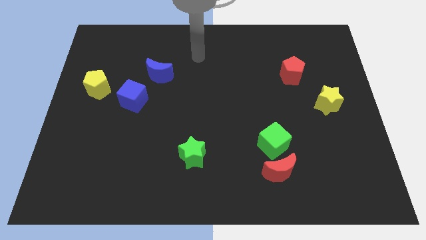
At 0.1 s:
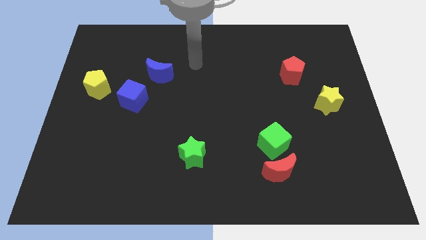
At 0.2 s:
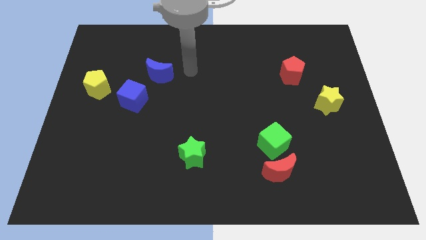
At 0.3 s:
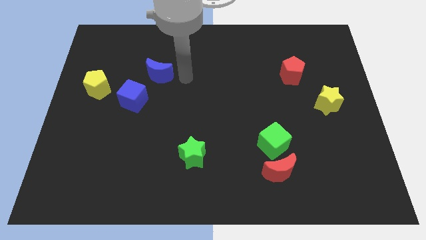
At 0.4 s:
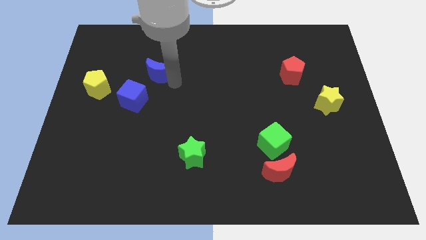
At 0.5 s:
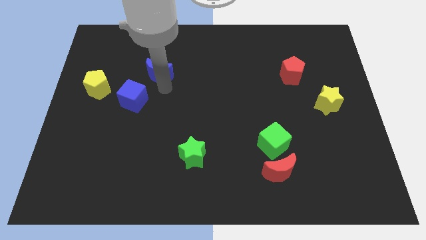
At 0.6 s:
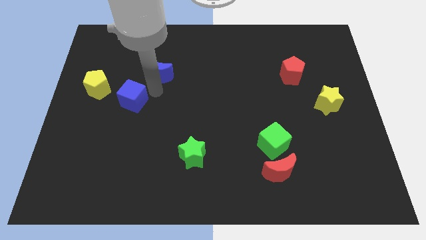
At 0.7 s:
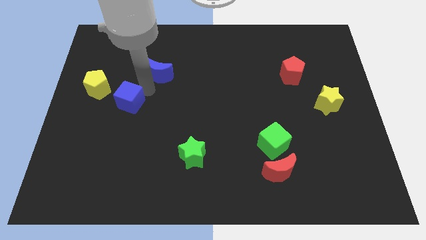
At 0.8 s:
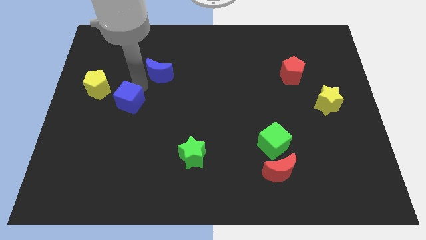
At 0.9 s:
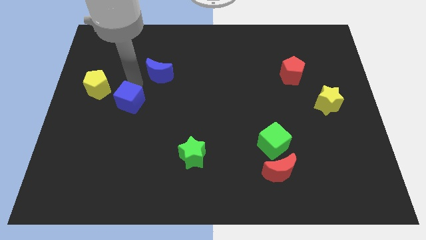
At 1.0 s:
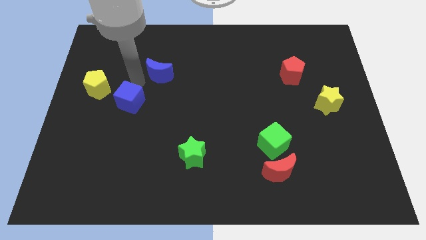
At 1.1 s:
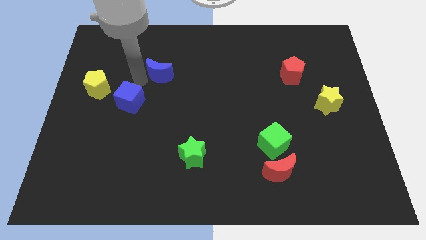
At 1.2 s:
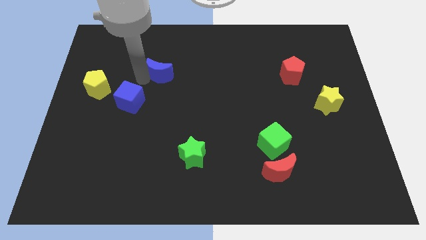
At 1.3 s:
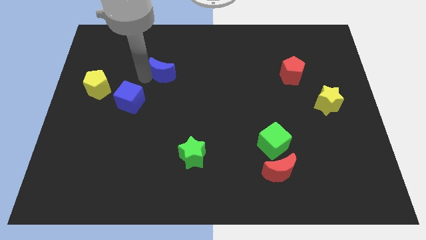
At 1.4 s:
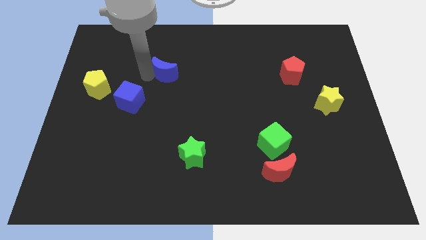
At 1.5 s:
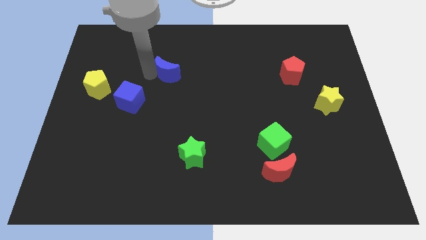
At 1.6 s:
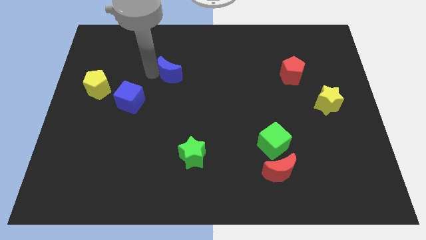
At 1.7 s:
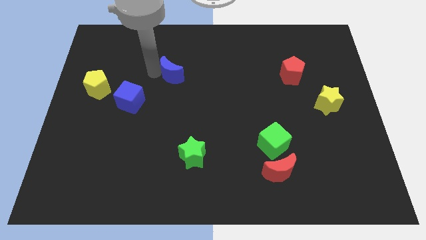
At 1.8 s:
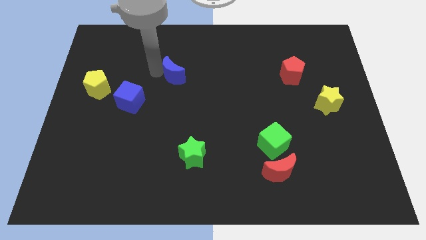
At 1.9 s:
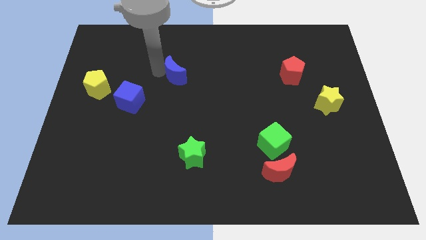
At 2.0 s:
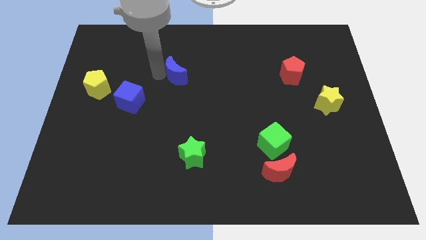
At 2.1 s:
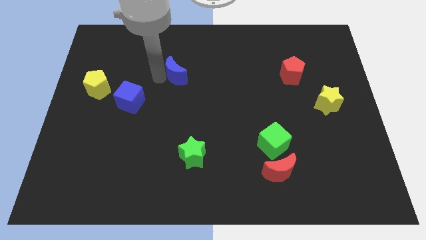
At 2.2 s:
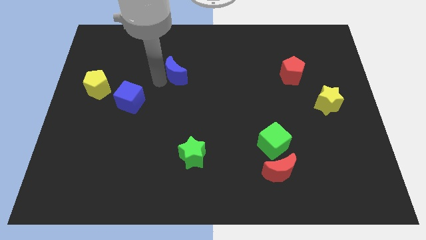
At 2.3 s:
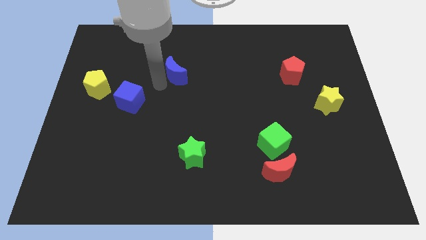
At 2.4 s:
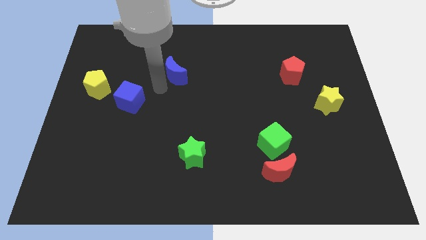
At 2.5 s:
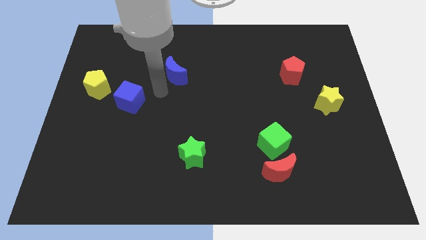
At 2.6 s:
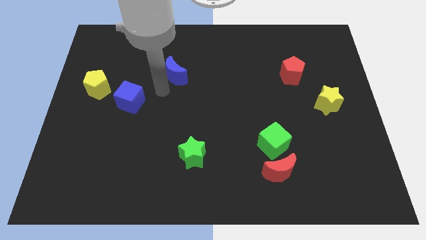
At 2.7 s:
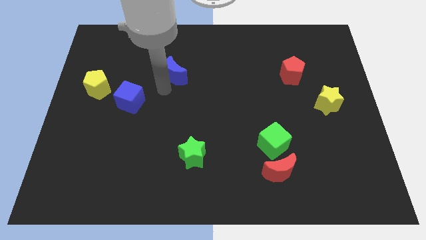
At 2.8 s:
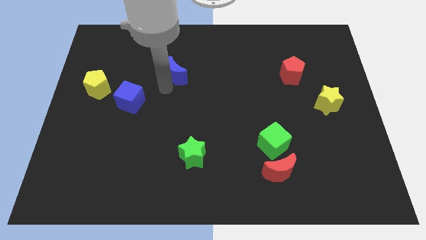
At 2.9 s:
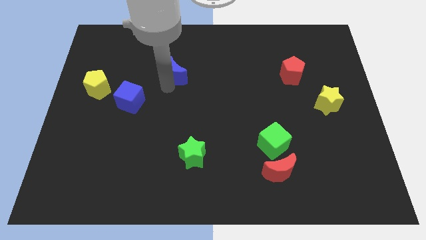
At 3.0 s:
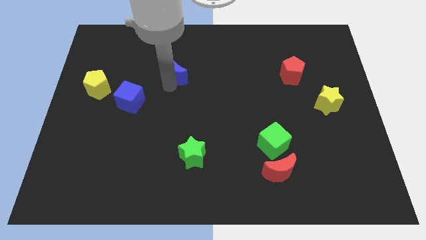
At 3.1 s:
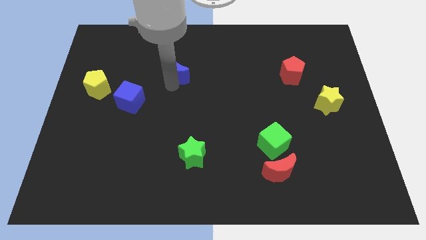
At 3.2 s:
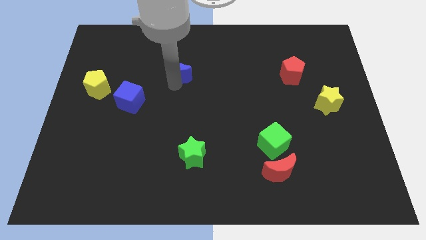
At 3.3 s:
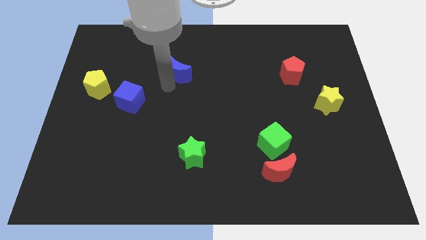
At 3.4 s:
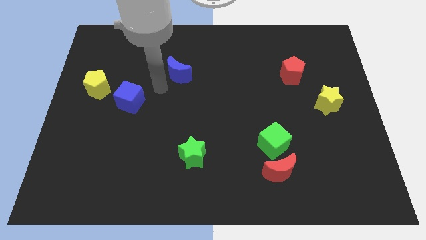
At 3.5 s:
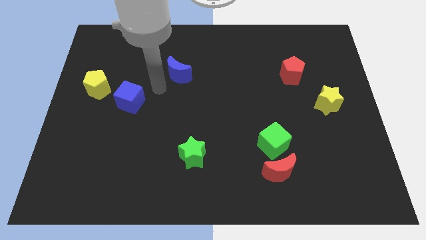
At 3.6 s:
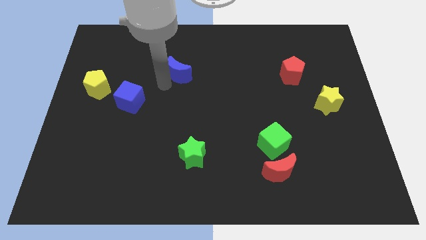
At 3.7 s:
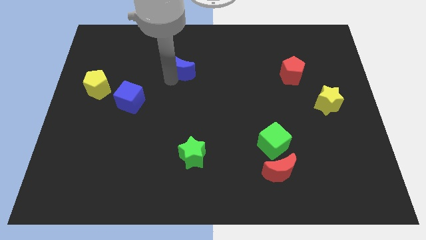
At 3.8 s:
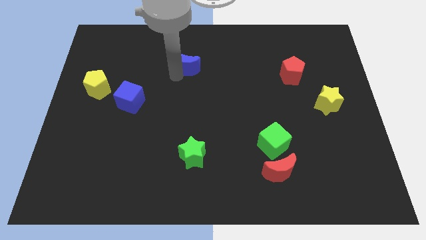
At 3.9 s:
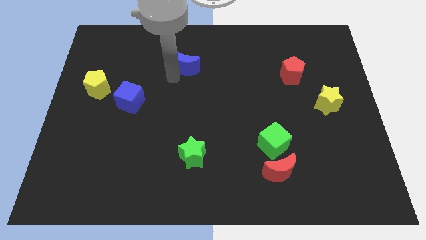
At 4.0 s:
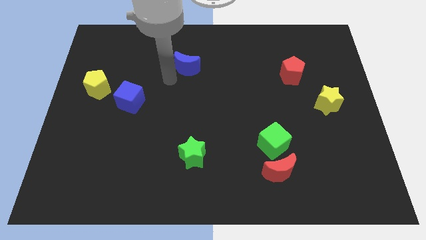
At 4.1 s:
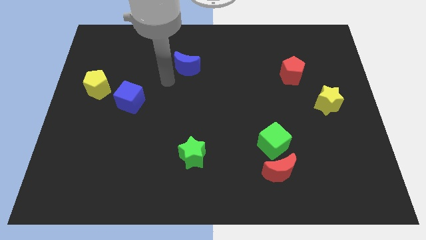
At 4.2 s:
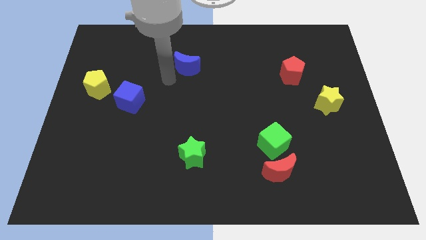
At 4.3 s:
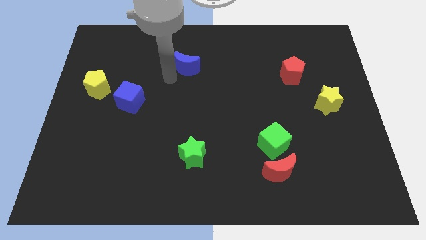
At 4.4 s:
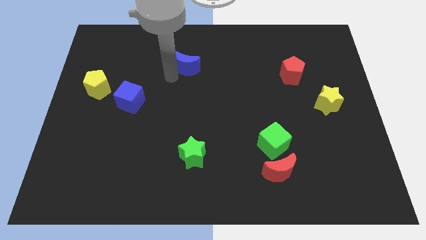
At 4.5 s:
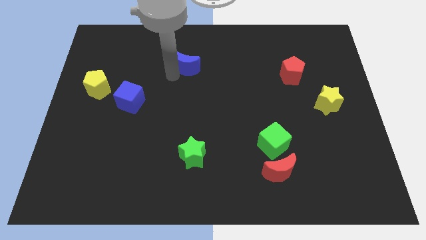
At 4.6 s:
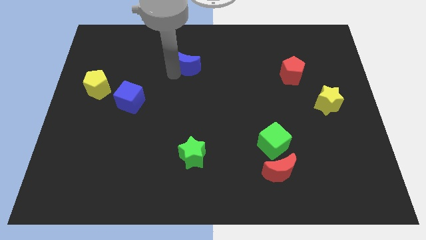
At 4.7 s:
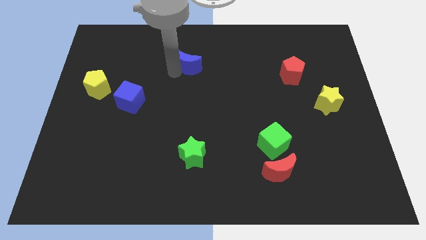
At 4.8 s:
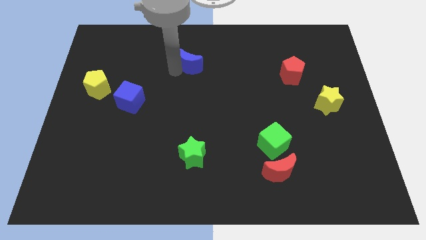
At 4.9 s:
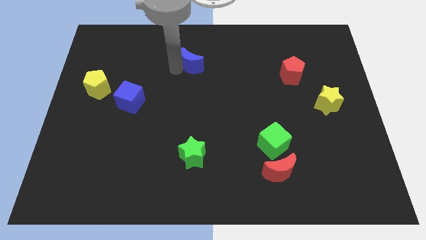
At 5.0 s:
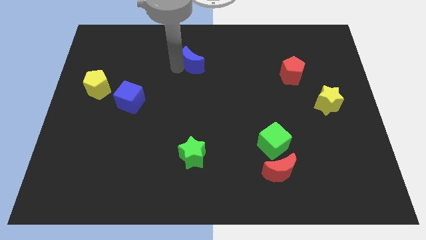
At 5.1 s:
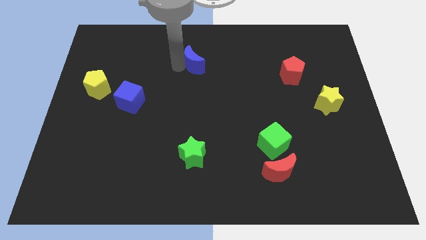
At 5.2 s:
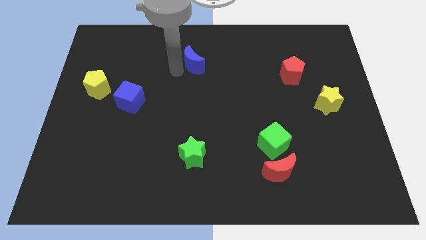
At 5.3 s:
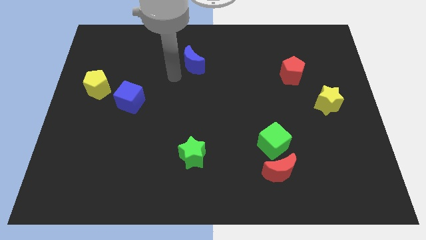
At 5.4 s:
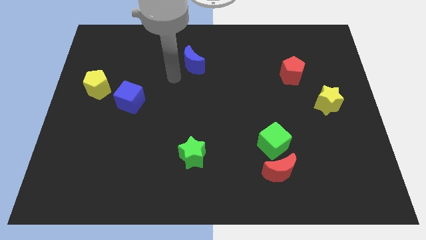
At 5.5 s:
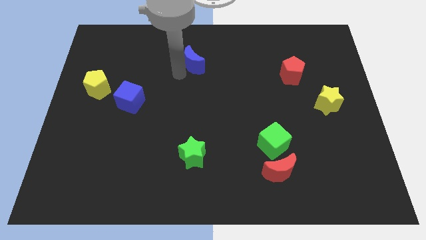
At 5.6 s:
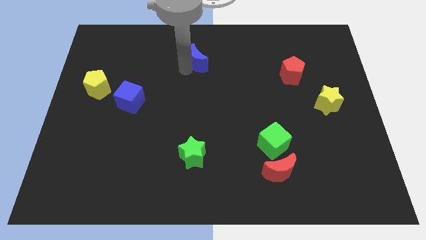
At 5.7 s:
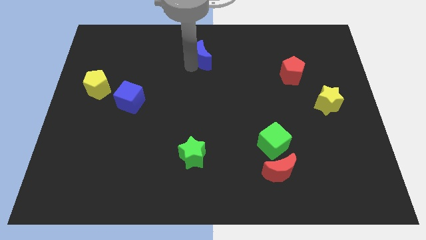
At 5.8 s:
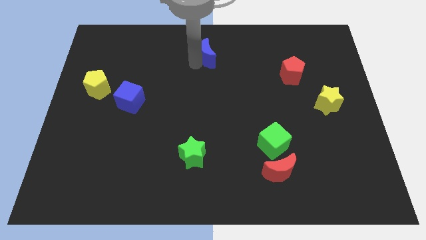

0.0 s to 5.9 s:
slide the blue moon to the towards your base
